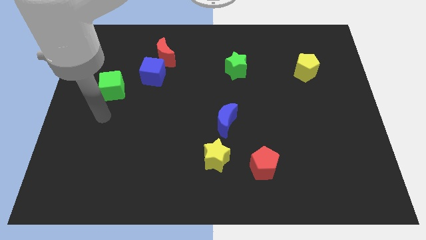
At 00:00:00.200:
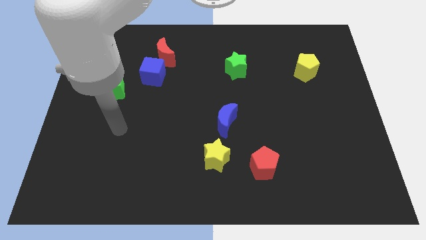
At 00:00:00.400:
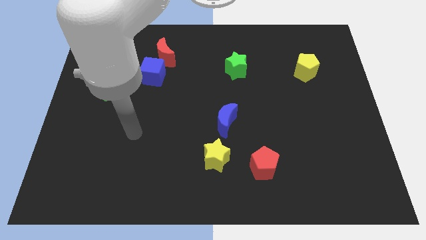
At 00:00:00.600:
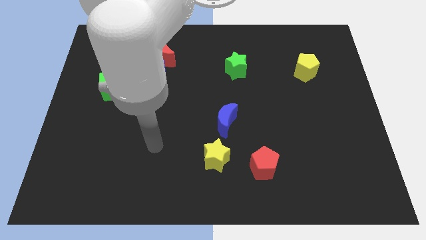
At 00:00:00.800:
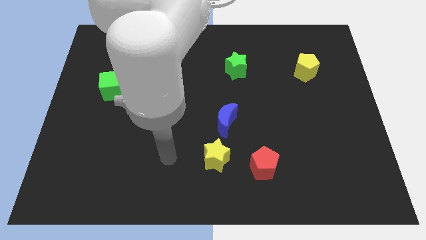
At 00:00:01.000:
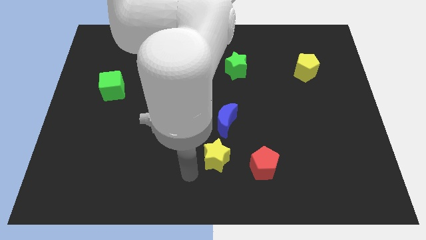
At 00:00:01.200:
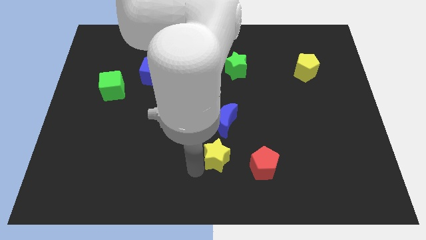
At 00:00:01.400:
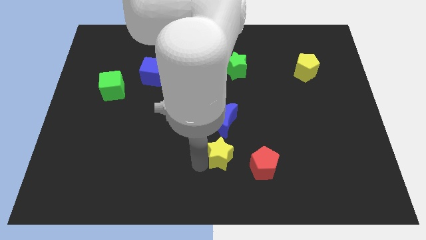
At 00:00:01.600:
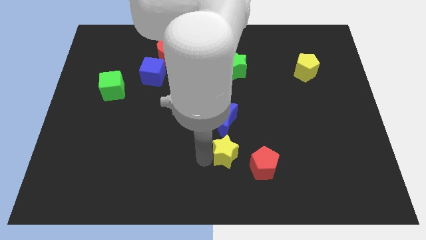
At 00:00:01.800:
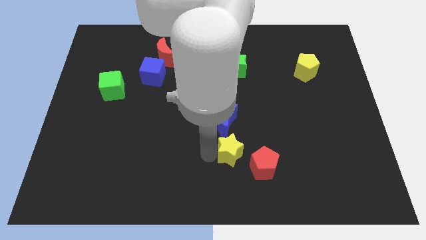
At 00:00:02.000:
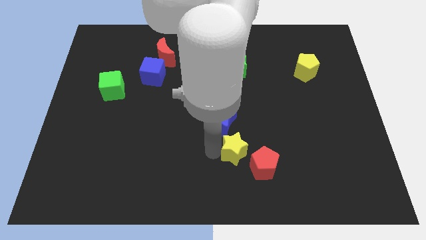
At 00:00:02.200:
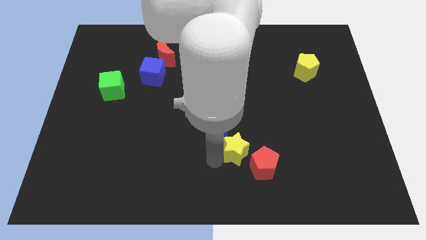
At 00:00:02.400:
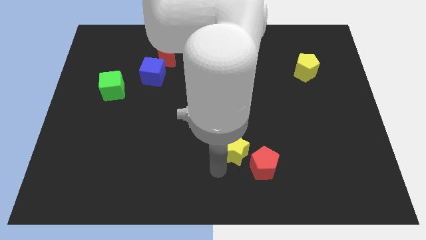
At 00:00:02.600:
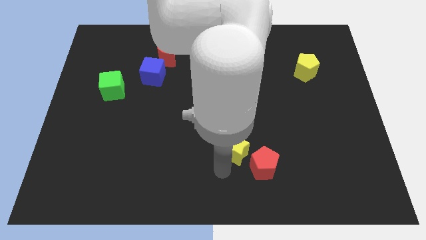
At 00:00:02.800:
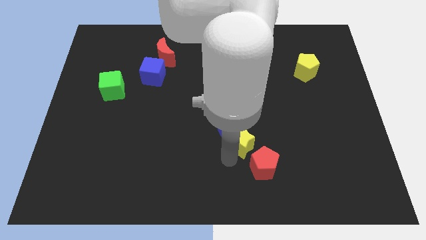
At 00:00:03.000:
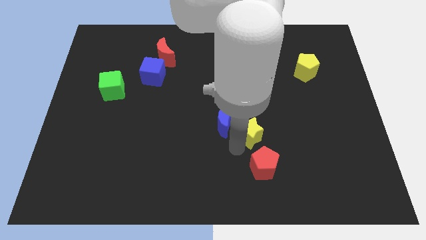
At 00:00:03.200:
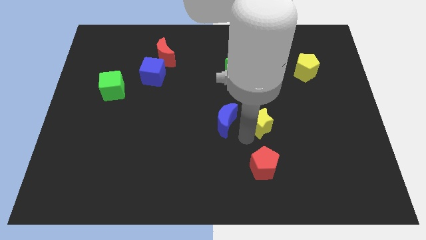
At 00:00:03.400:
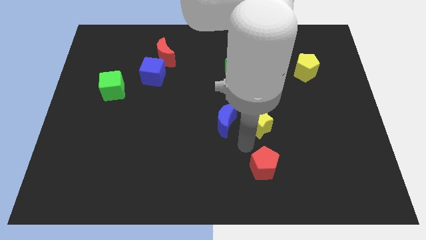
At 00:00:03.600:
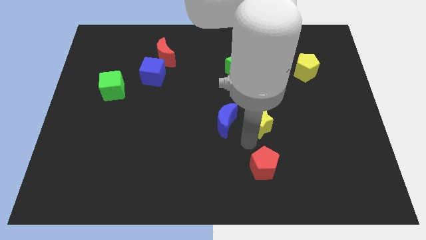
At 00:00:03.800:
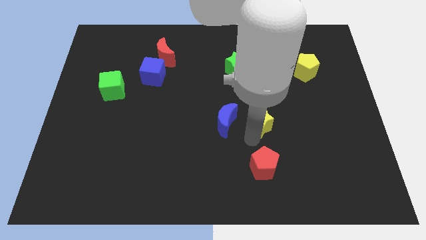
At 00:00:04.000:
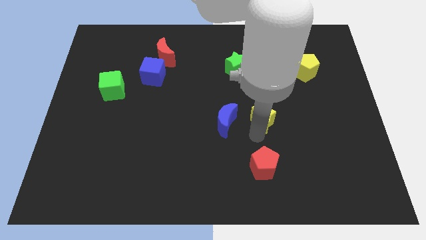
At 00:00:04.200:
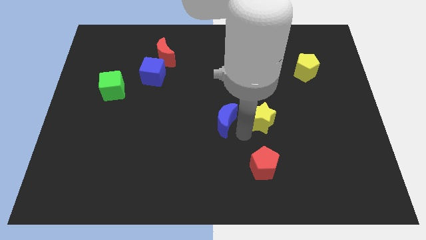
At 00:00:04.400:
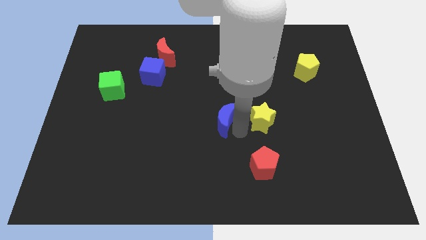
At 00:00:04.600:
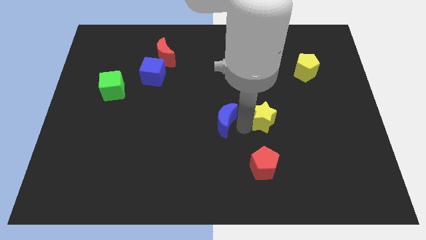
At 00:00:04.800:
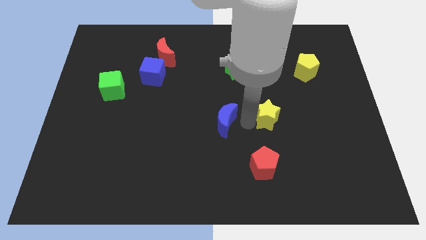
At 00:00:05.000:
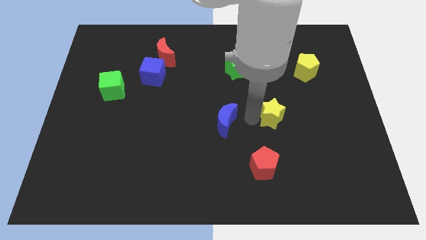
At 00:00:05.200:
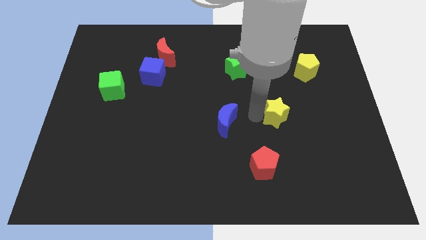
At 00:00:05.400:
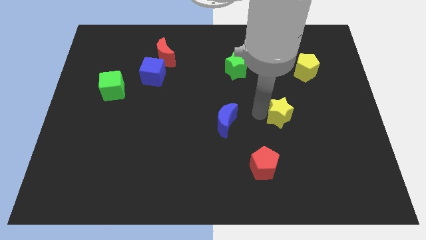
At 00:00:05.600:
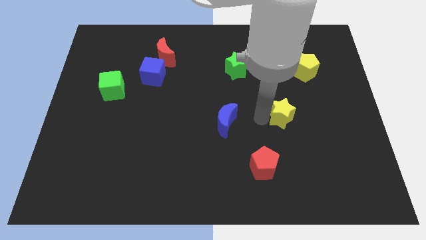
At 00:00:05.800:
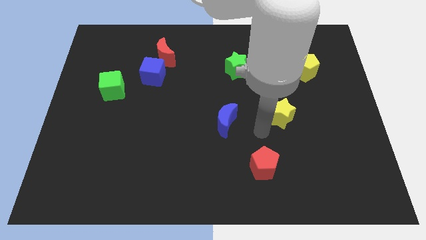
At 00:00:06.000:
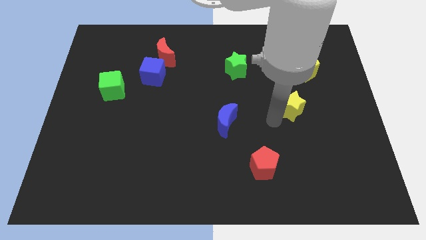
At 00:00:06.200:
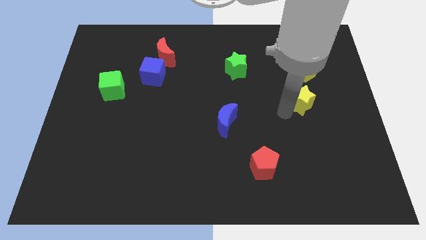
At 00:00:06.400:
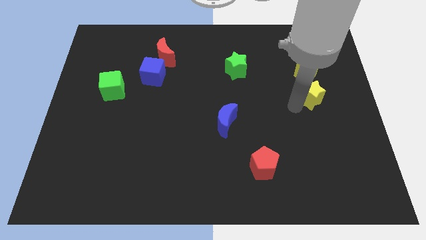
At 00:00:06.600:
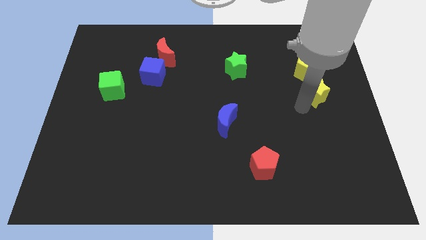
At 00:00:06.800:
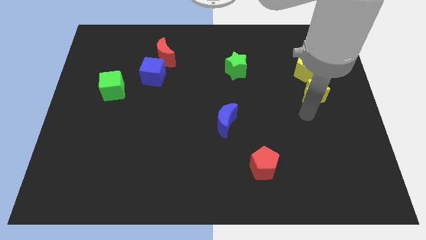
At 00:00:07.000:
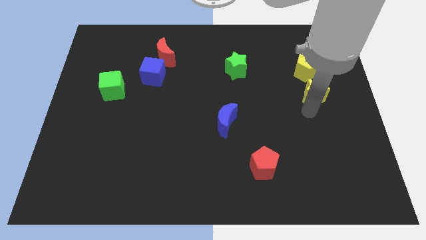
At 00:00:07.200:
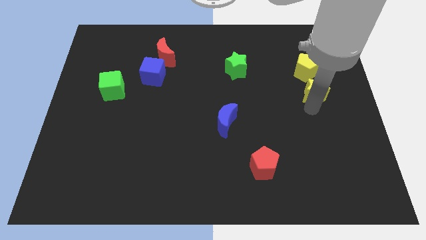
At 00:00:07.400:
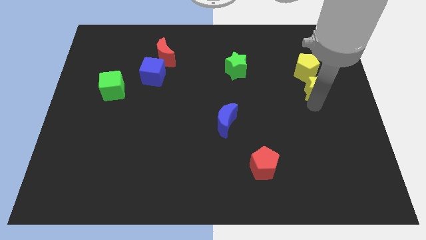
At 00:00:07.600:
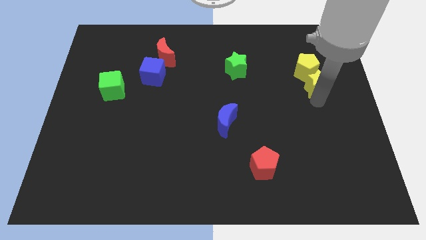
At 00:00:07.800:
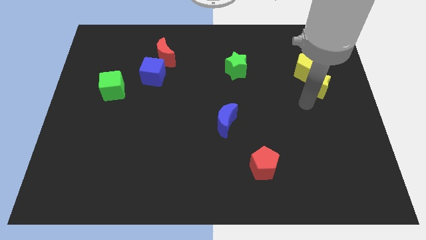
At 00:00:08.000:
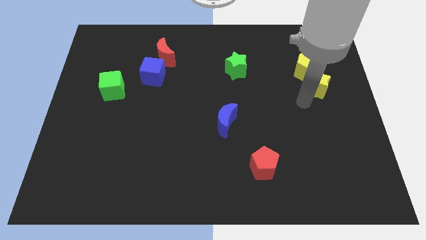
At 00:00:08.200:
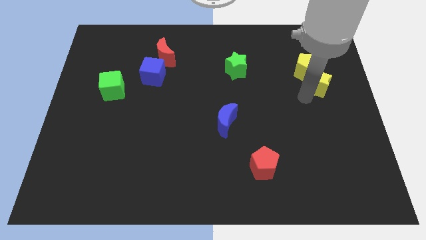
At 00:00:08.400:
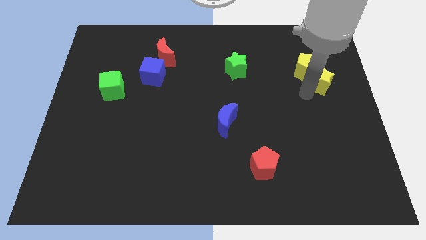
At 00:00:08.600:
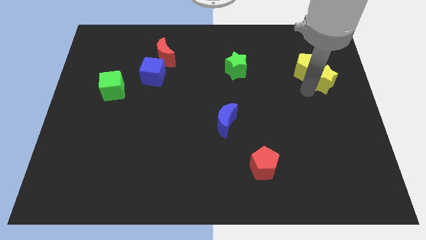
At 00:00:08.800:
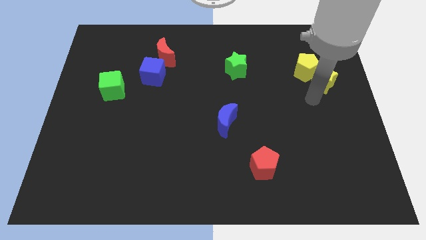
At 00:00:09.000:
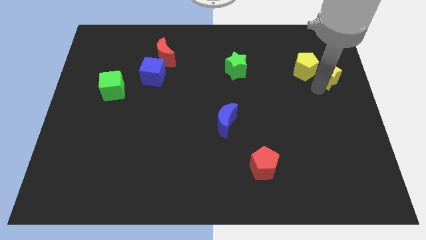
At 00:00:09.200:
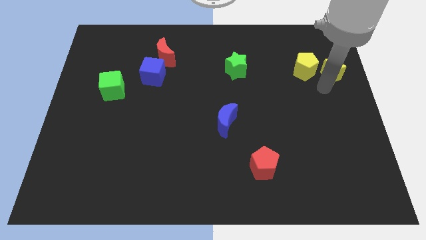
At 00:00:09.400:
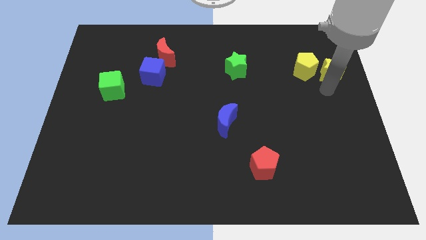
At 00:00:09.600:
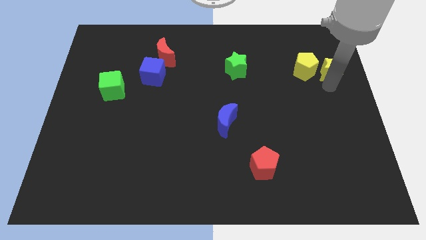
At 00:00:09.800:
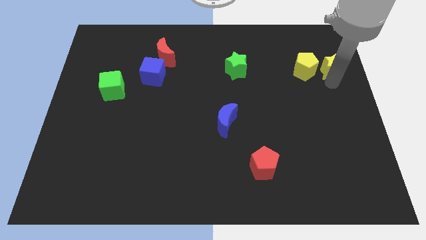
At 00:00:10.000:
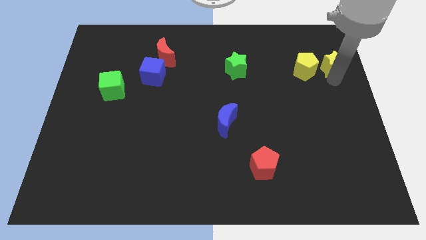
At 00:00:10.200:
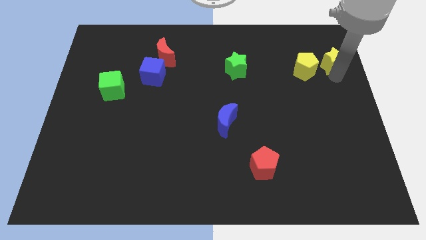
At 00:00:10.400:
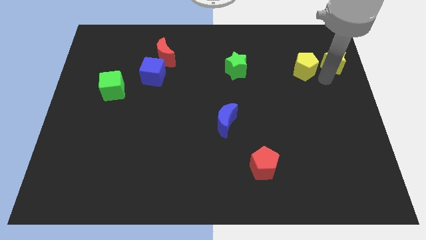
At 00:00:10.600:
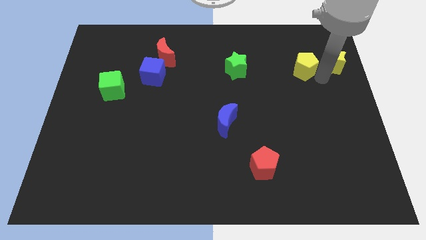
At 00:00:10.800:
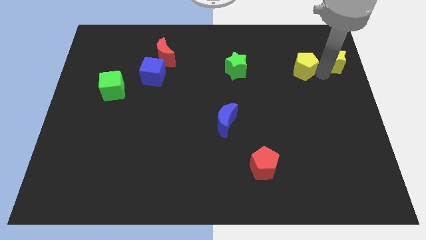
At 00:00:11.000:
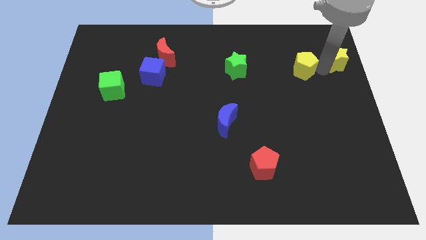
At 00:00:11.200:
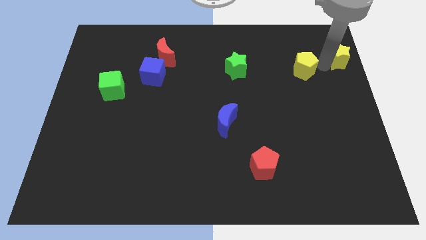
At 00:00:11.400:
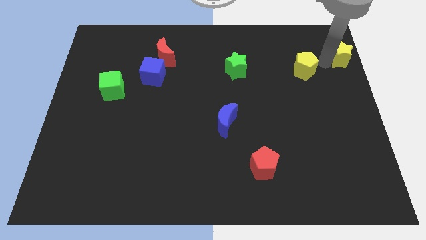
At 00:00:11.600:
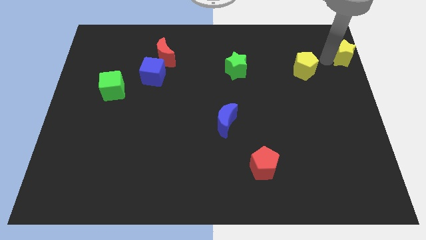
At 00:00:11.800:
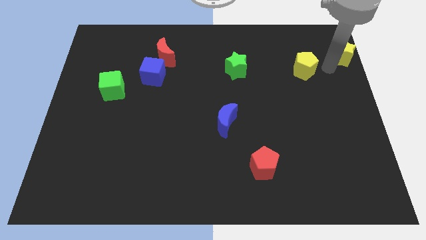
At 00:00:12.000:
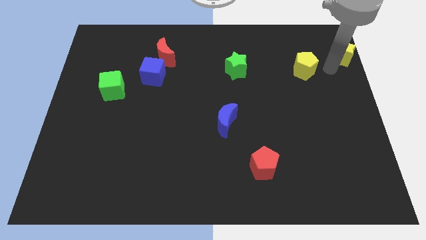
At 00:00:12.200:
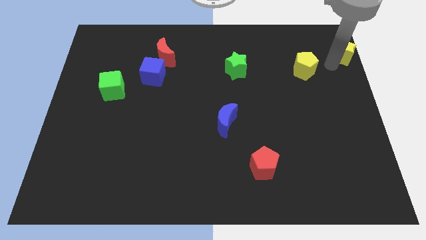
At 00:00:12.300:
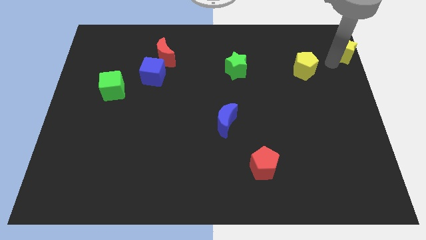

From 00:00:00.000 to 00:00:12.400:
push the yellow star to the top right of the board
